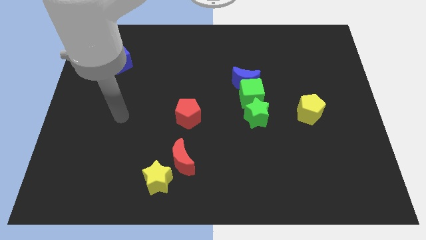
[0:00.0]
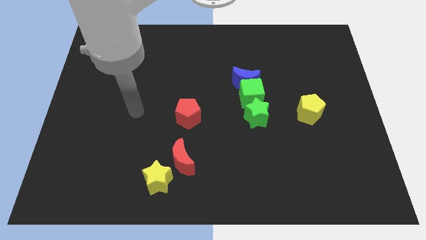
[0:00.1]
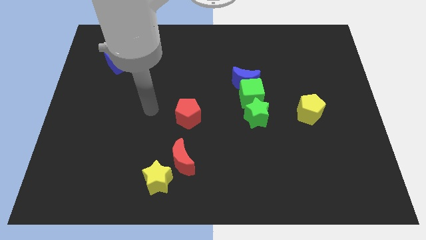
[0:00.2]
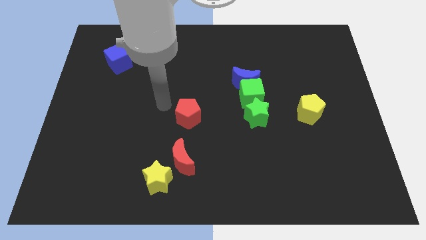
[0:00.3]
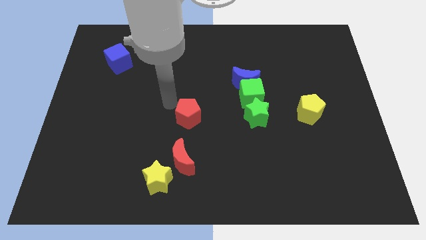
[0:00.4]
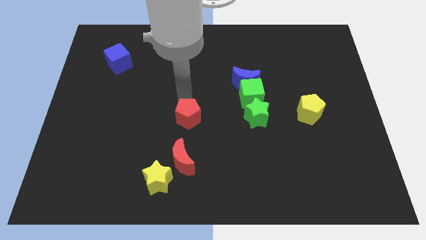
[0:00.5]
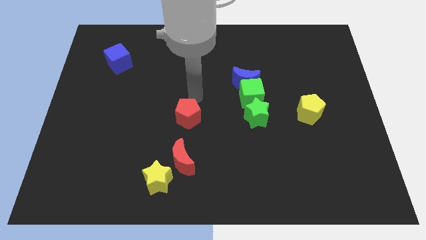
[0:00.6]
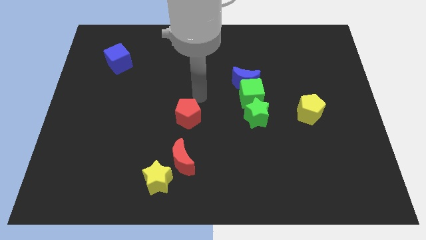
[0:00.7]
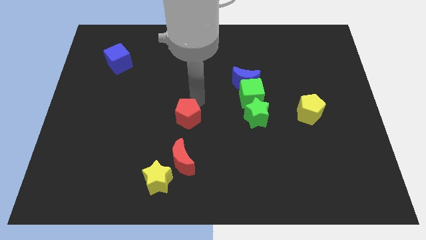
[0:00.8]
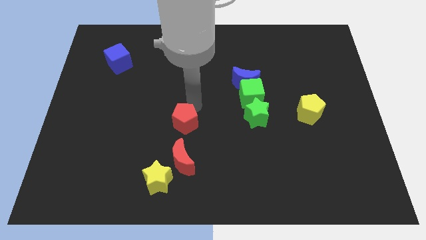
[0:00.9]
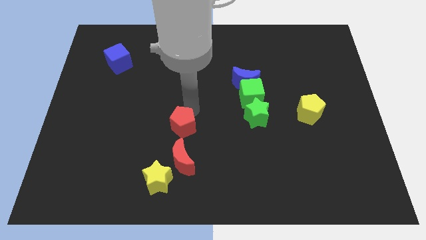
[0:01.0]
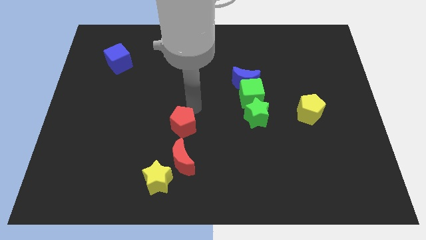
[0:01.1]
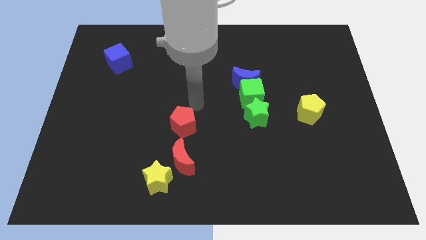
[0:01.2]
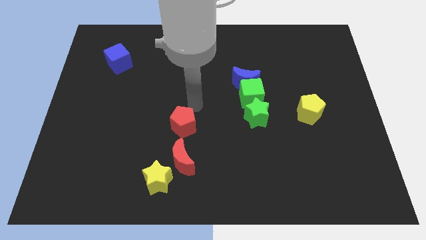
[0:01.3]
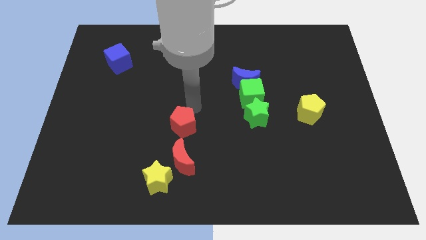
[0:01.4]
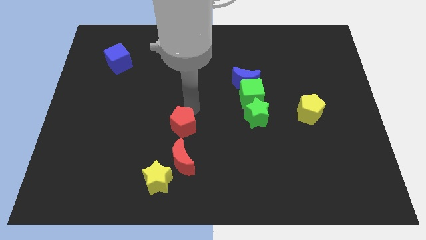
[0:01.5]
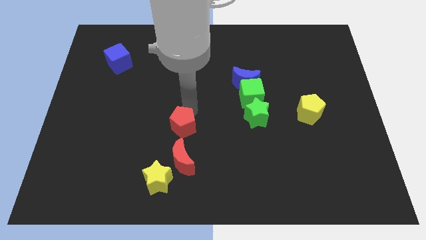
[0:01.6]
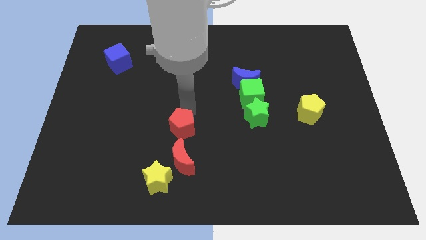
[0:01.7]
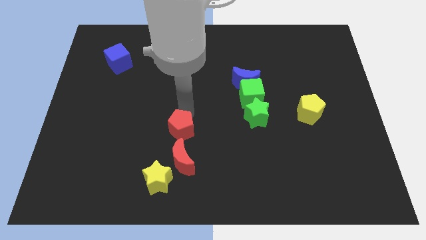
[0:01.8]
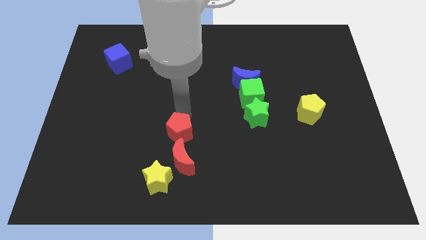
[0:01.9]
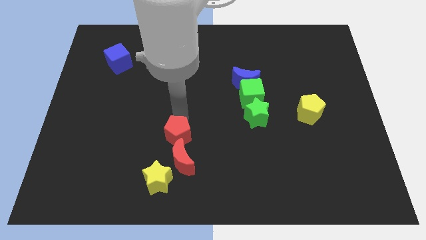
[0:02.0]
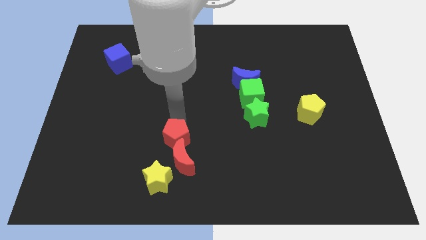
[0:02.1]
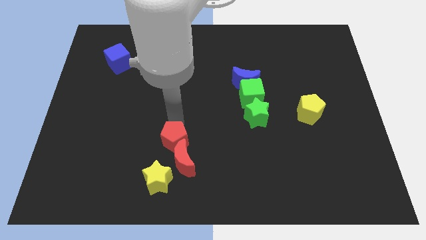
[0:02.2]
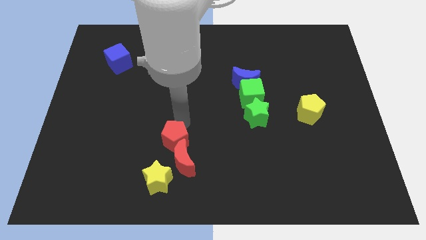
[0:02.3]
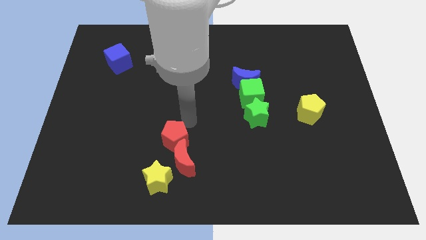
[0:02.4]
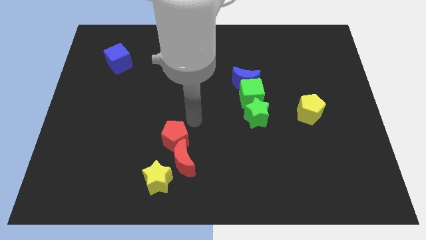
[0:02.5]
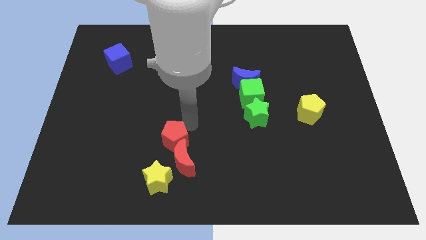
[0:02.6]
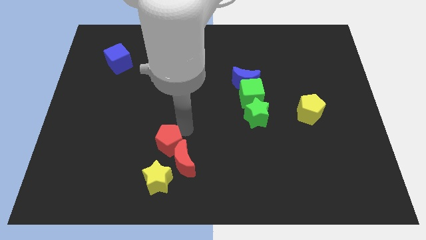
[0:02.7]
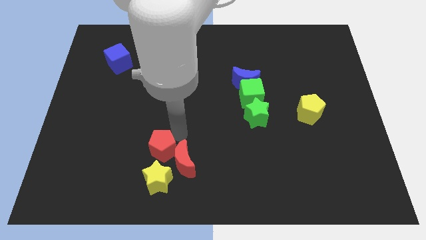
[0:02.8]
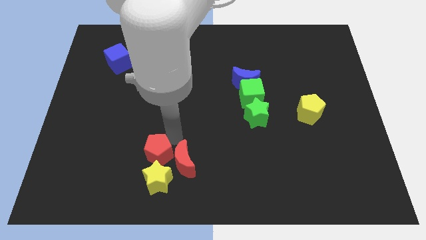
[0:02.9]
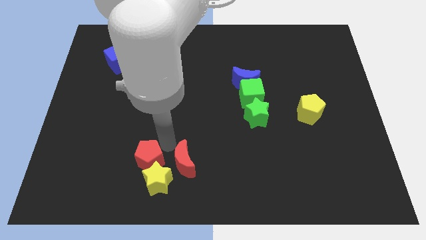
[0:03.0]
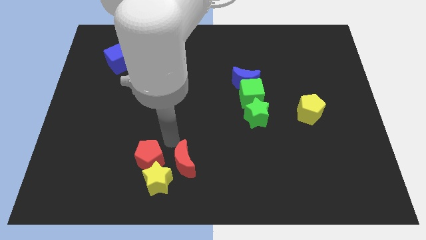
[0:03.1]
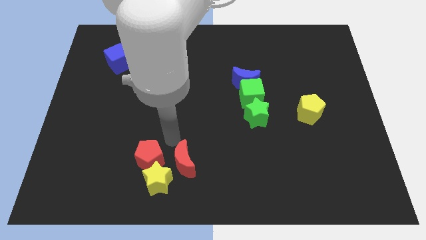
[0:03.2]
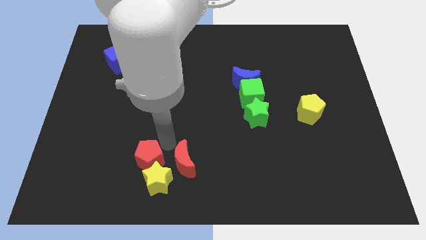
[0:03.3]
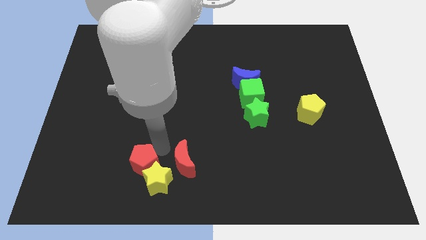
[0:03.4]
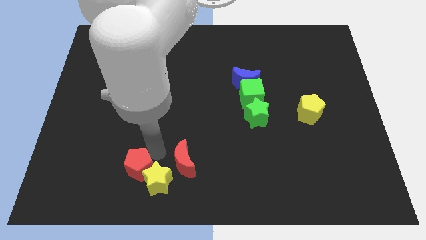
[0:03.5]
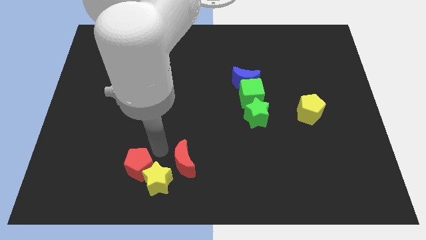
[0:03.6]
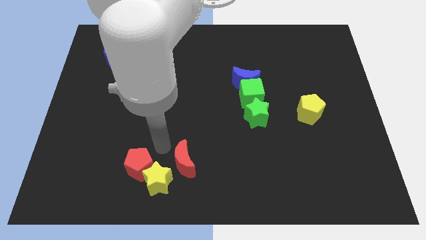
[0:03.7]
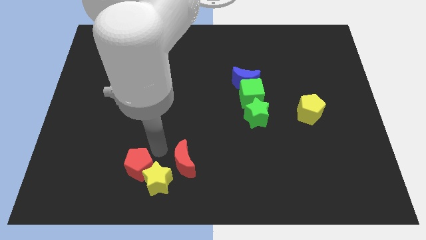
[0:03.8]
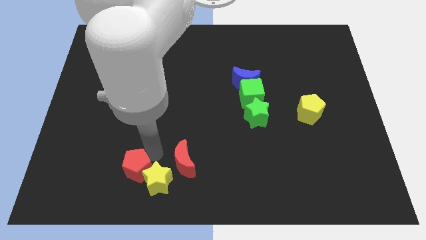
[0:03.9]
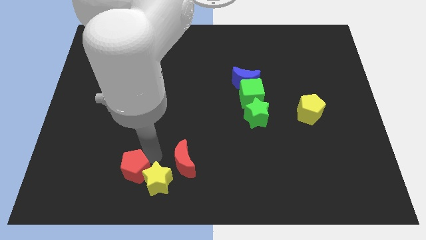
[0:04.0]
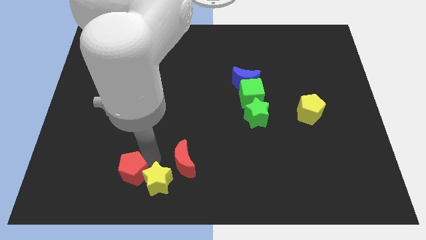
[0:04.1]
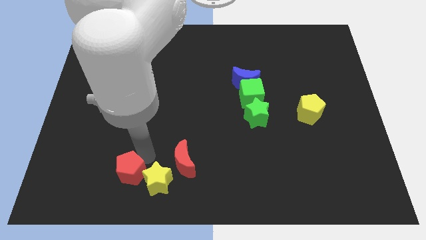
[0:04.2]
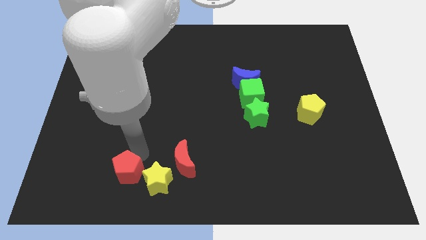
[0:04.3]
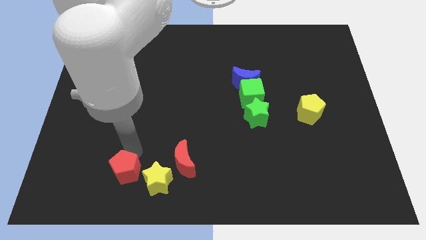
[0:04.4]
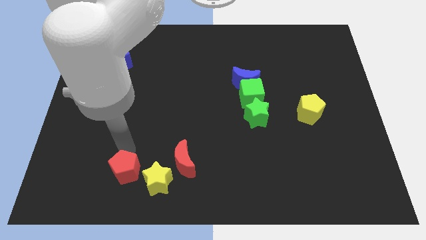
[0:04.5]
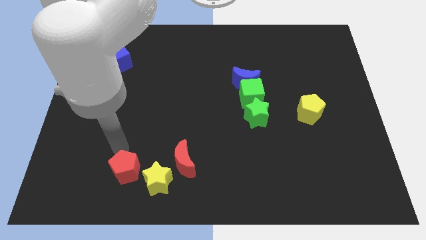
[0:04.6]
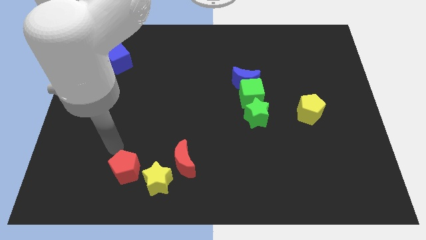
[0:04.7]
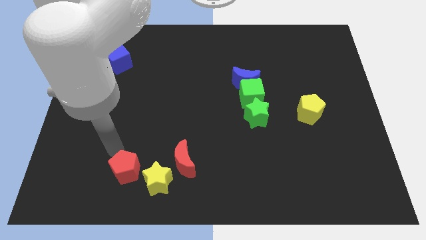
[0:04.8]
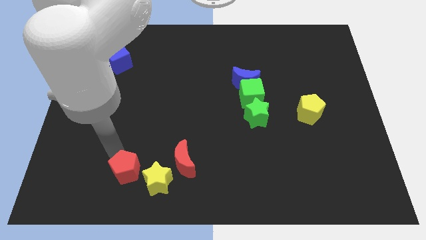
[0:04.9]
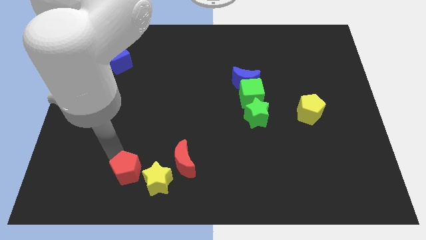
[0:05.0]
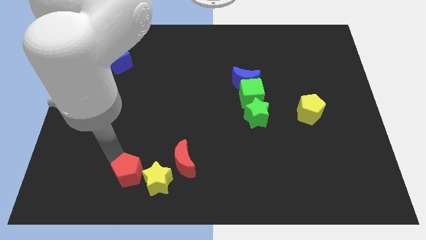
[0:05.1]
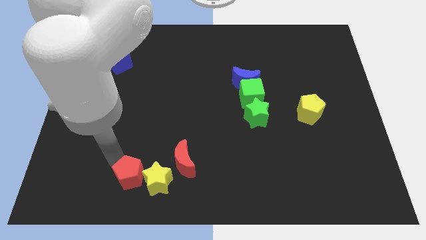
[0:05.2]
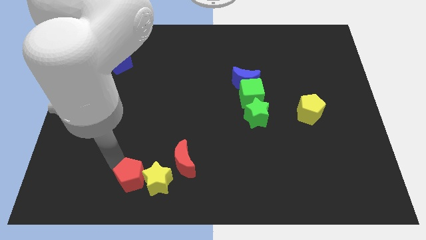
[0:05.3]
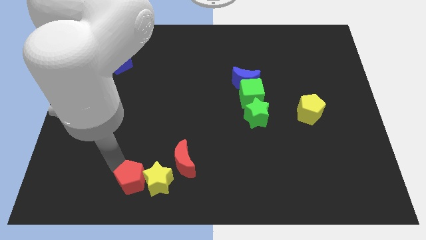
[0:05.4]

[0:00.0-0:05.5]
move the red pentagon diagonally down and to the left of the red moon

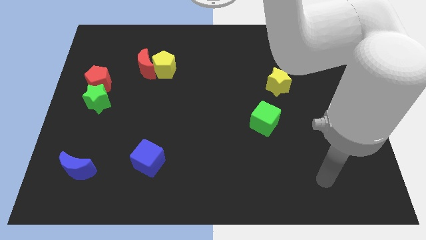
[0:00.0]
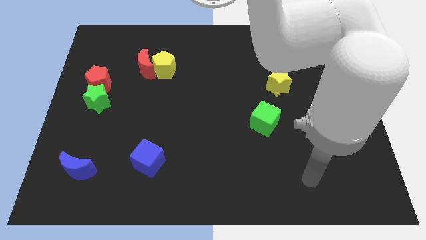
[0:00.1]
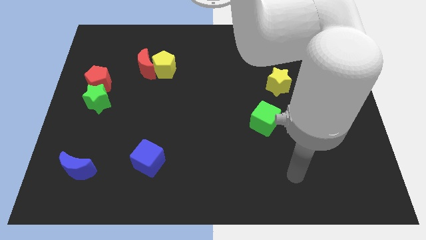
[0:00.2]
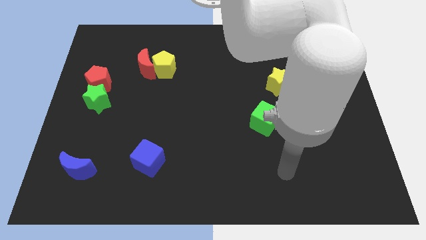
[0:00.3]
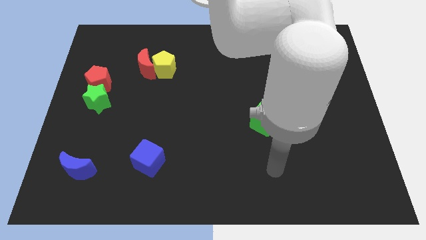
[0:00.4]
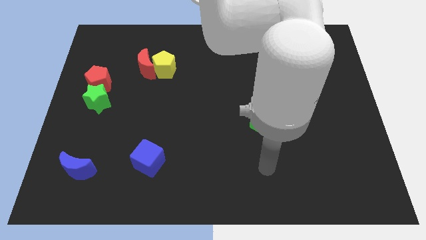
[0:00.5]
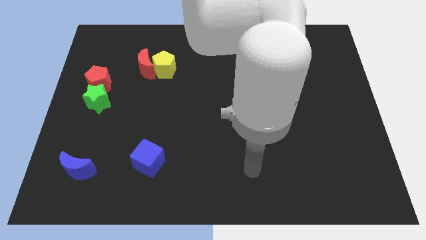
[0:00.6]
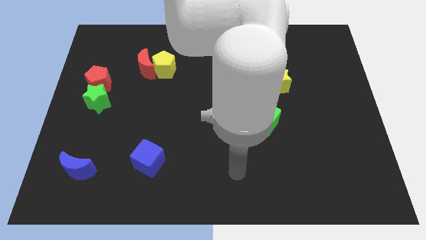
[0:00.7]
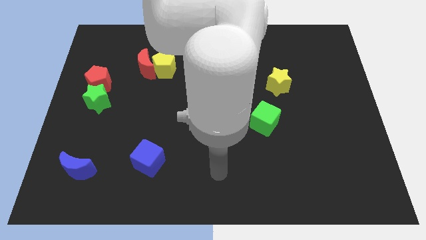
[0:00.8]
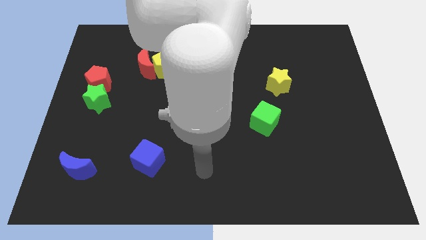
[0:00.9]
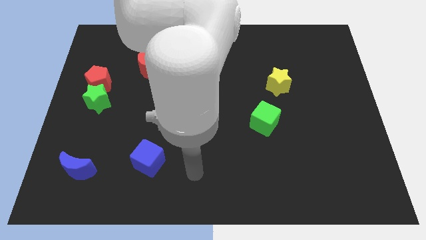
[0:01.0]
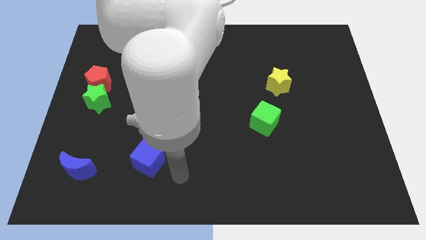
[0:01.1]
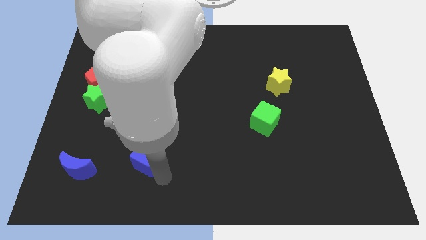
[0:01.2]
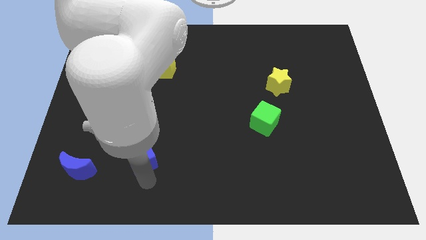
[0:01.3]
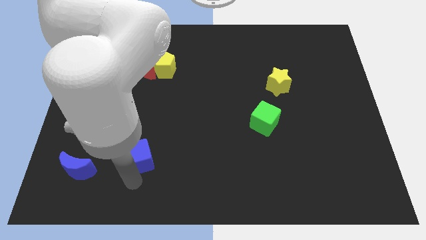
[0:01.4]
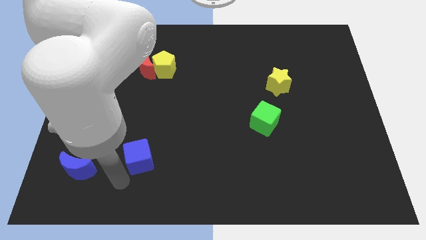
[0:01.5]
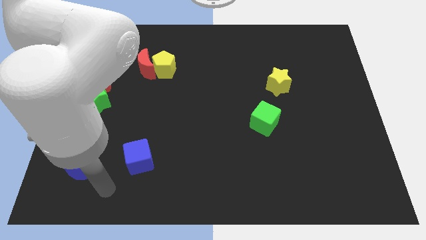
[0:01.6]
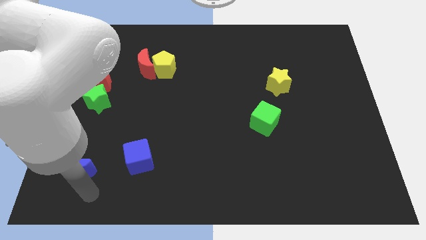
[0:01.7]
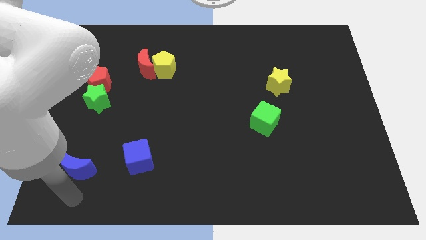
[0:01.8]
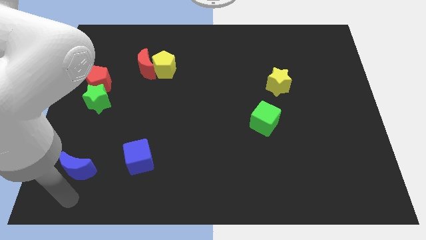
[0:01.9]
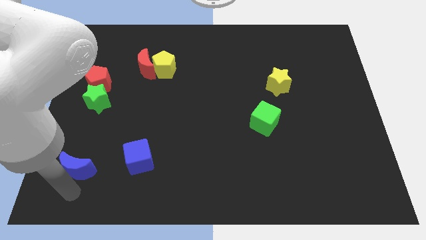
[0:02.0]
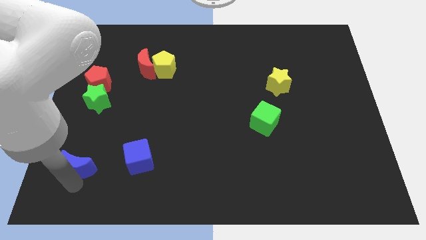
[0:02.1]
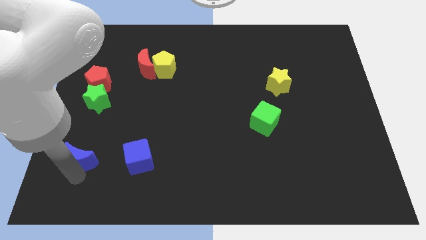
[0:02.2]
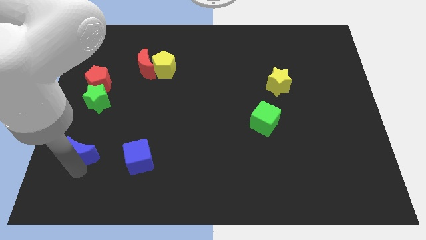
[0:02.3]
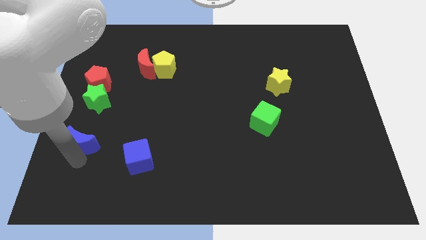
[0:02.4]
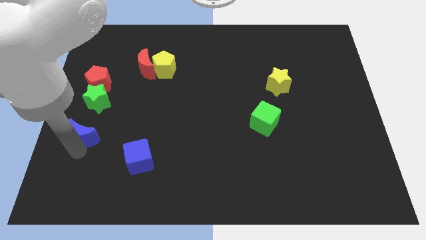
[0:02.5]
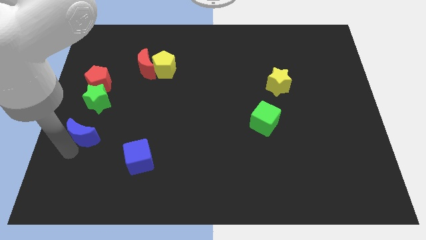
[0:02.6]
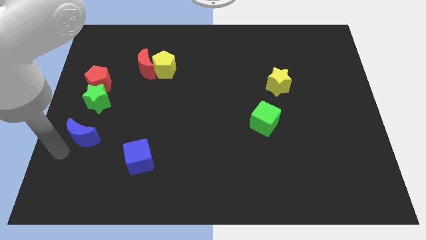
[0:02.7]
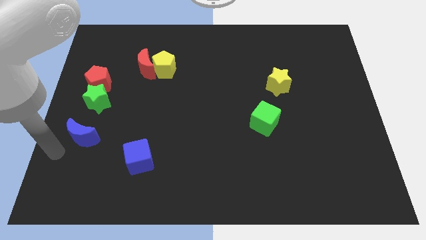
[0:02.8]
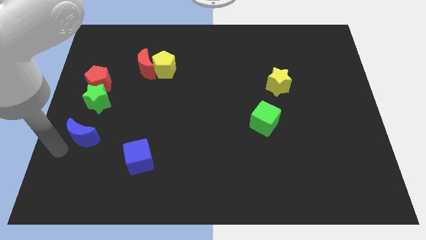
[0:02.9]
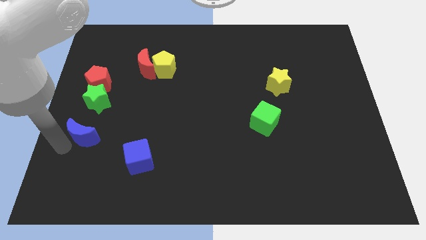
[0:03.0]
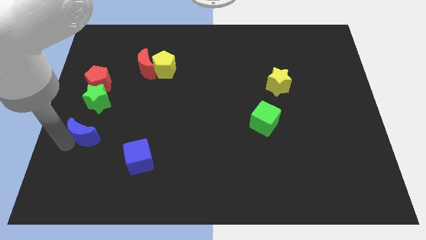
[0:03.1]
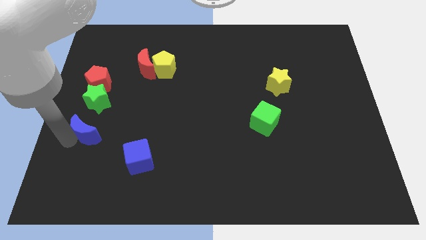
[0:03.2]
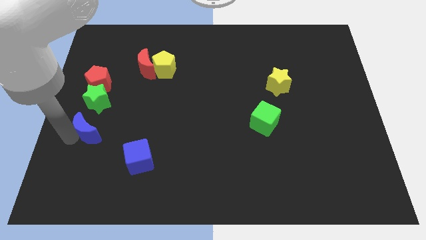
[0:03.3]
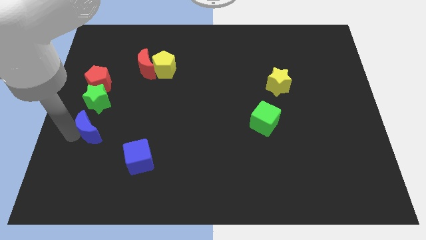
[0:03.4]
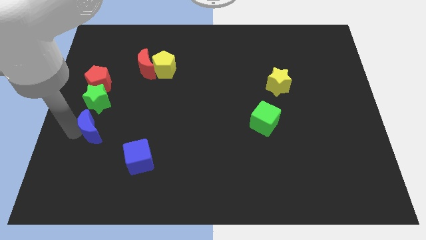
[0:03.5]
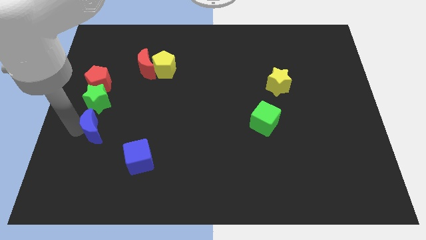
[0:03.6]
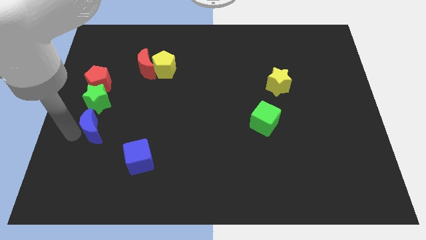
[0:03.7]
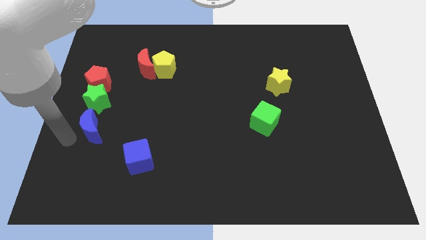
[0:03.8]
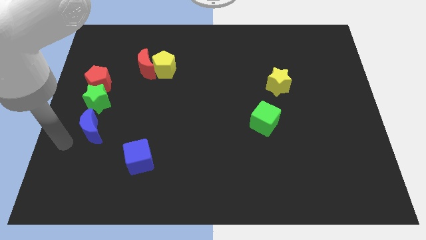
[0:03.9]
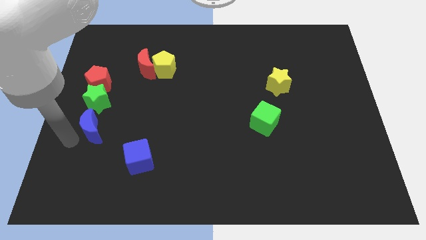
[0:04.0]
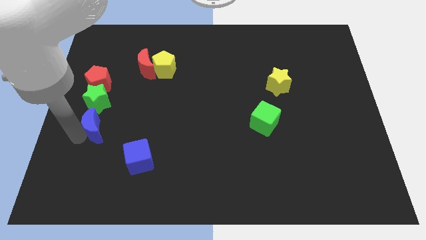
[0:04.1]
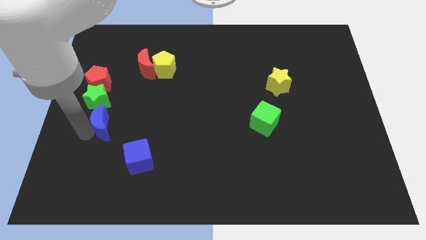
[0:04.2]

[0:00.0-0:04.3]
push the blue moon to the bottom right of the green star
